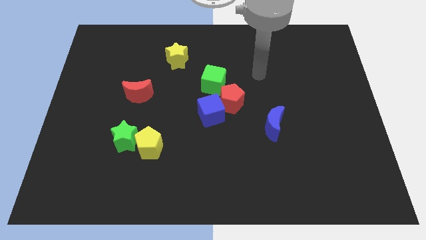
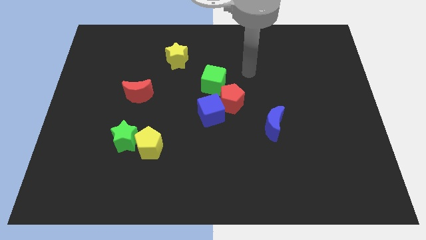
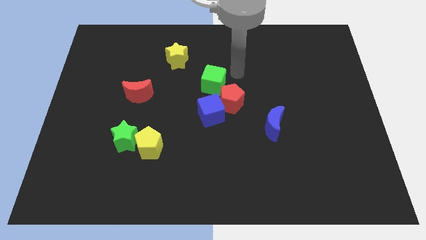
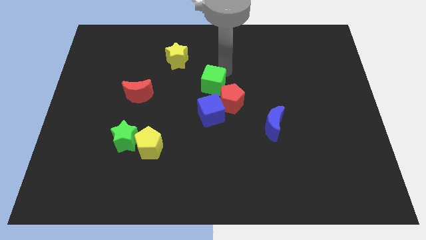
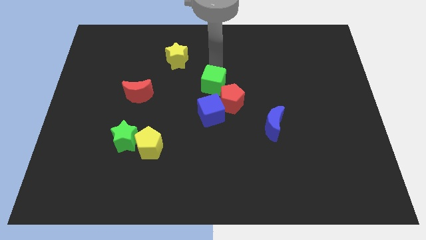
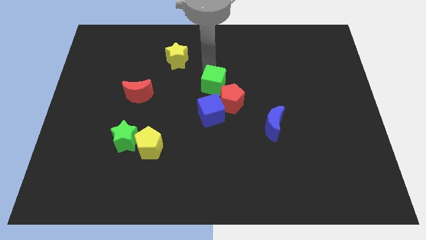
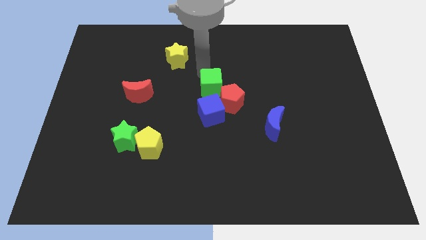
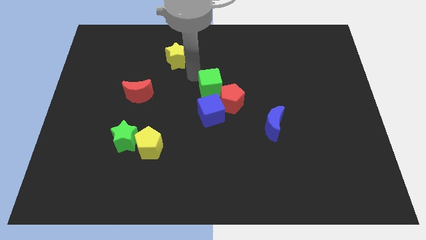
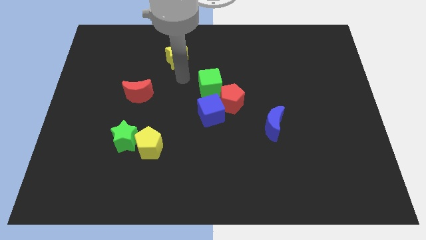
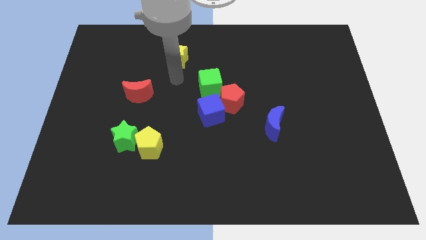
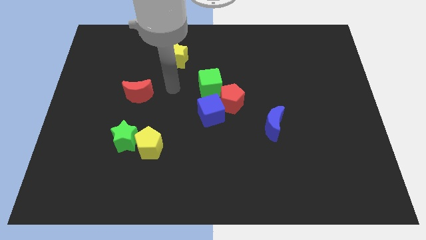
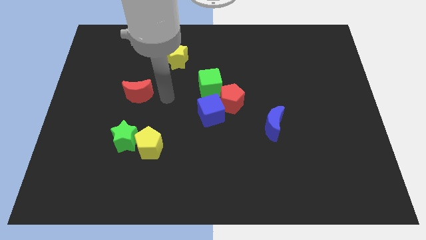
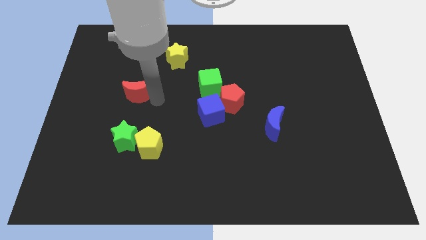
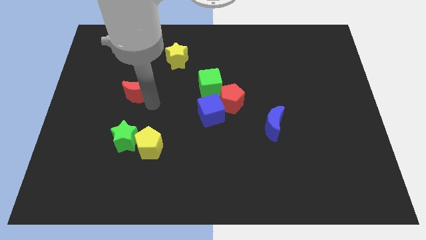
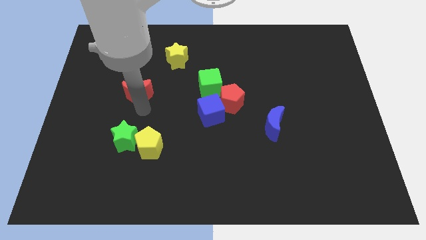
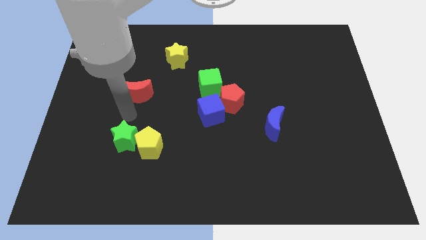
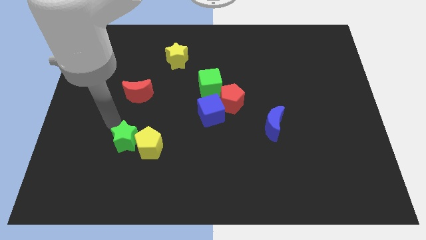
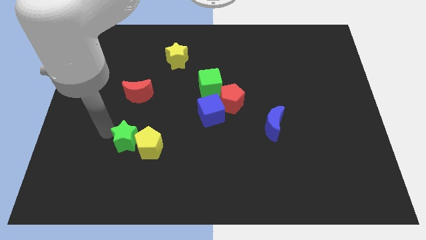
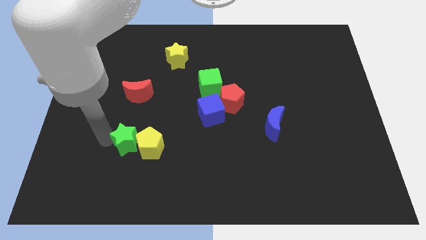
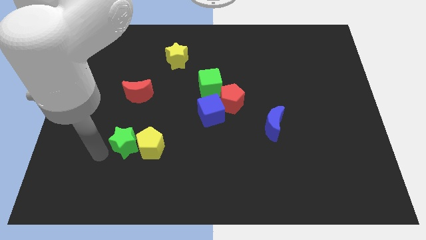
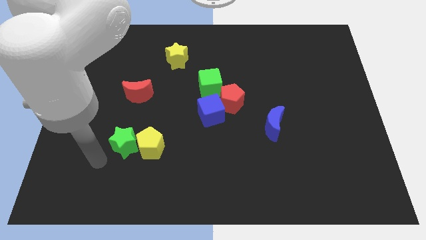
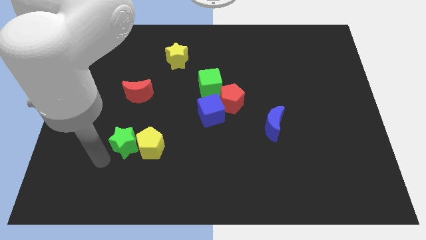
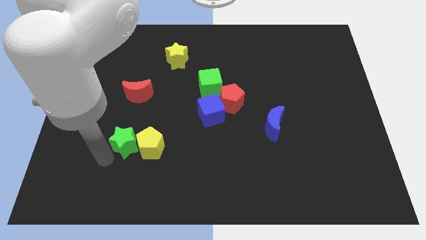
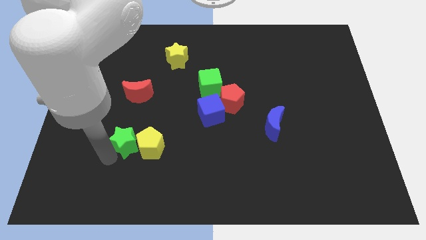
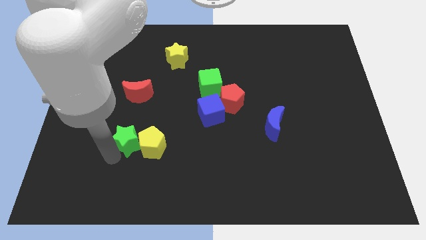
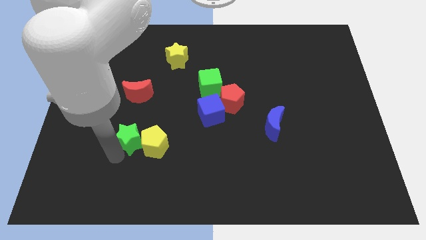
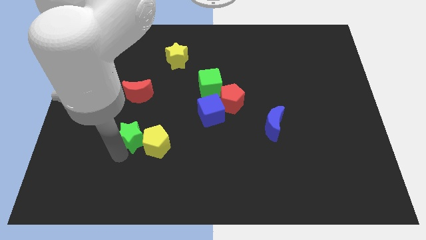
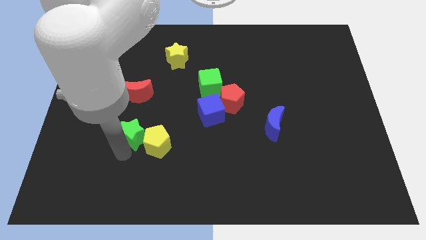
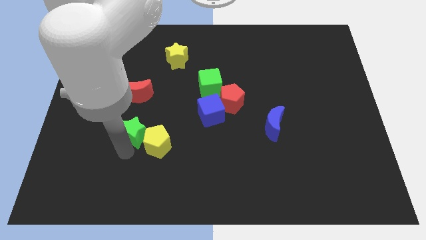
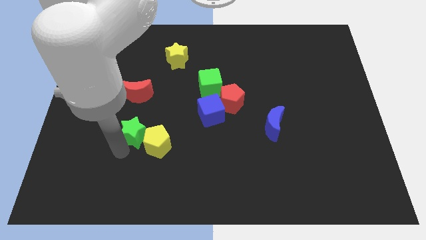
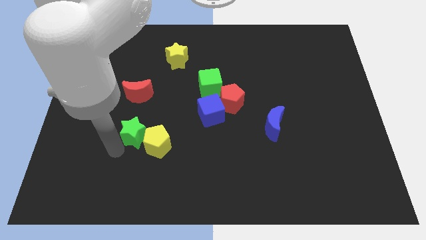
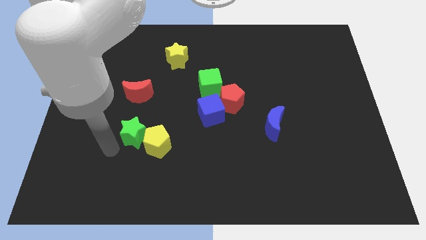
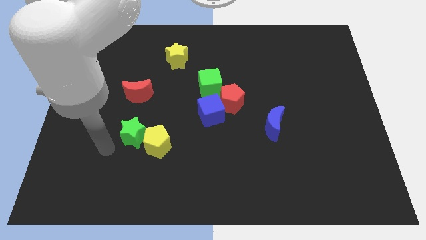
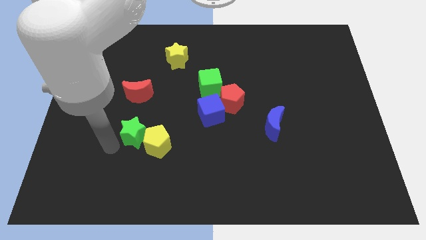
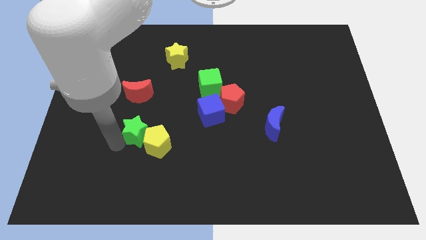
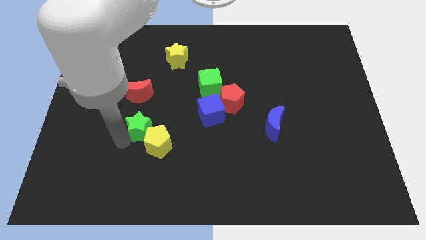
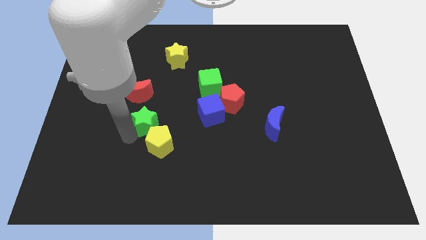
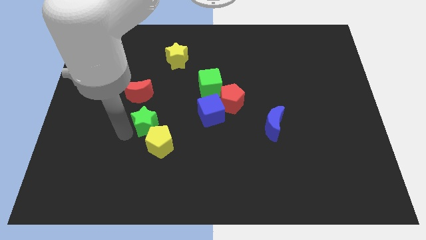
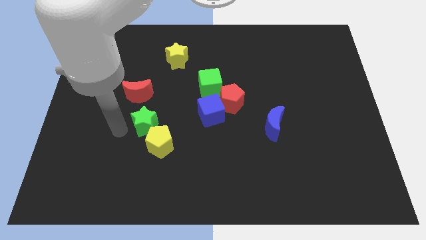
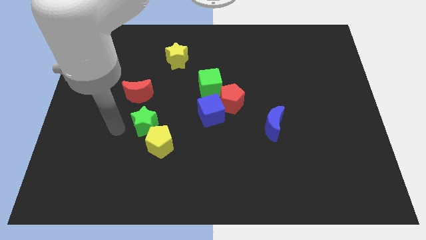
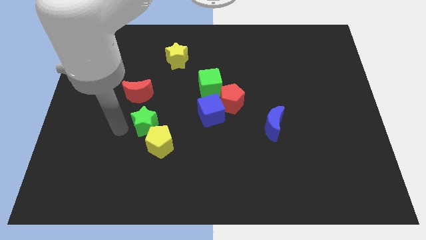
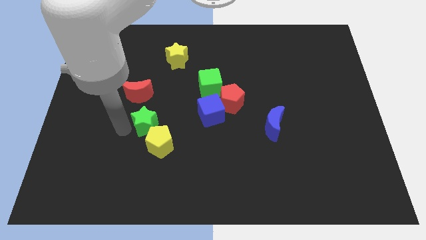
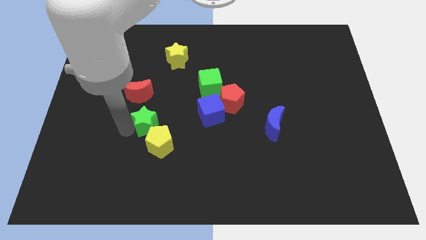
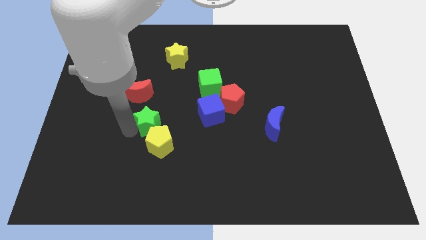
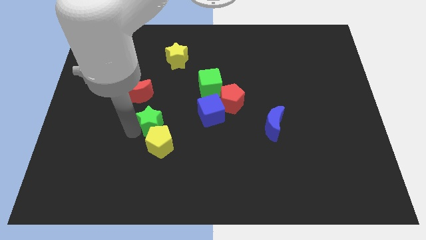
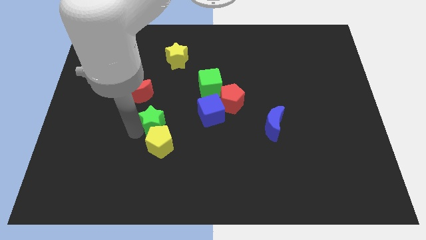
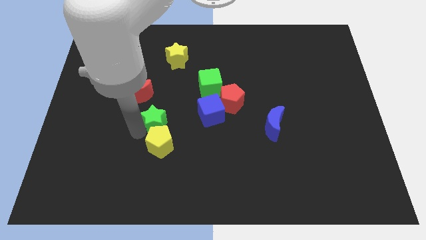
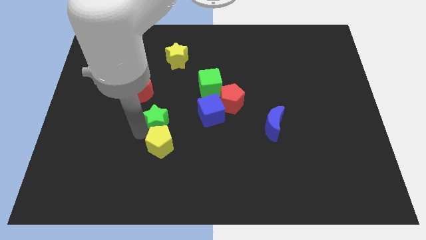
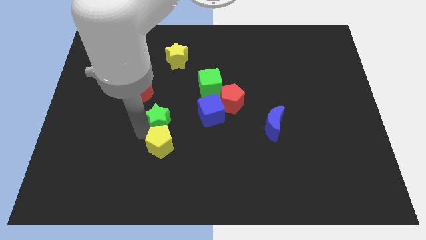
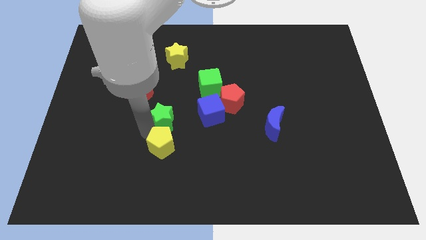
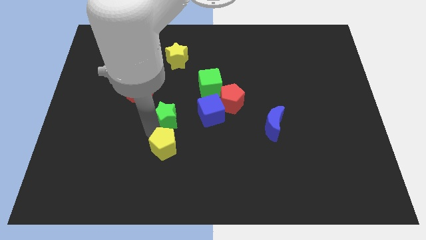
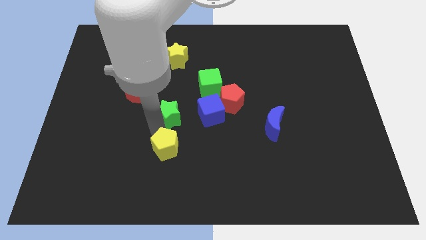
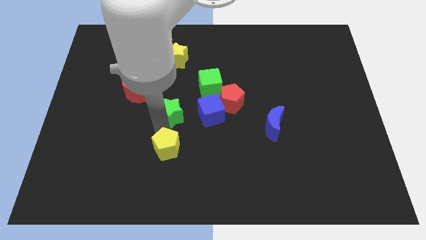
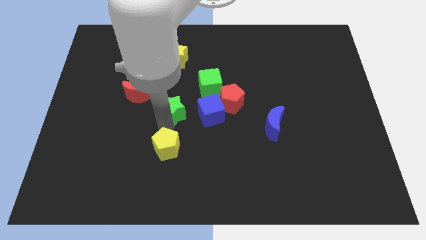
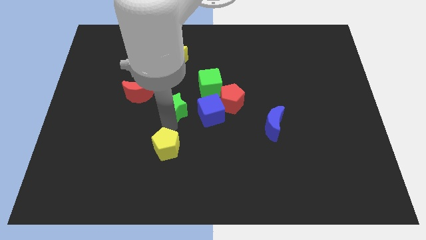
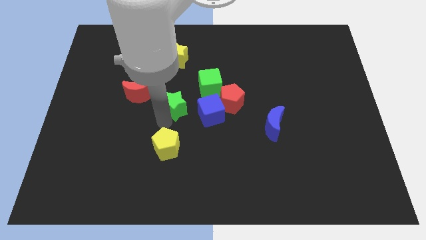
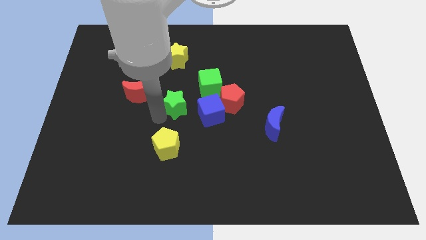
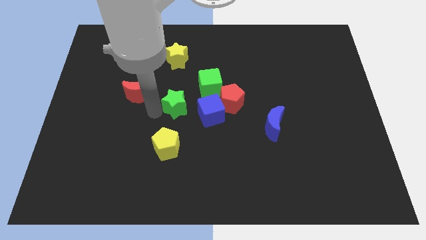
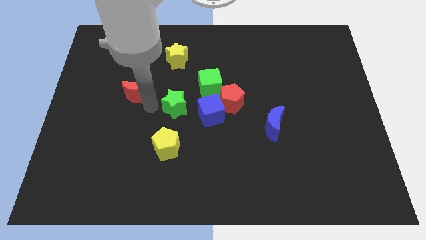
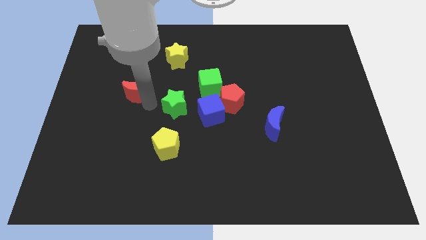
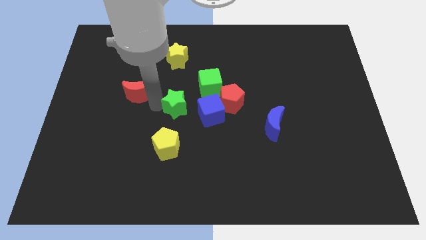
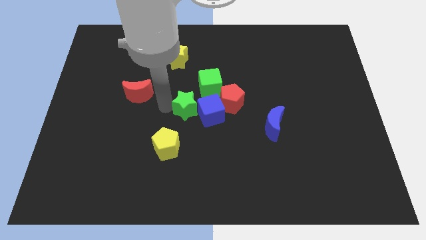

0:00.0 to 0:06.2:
slide the green star towards the blue cube
